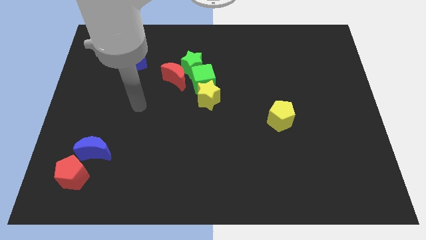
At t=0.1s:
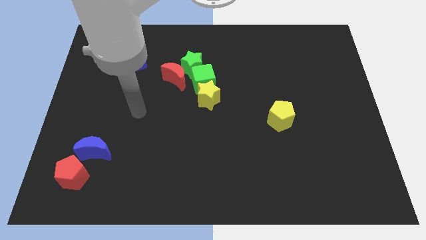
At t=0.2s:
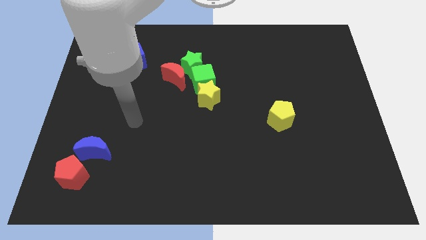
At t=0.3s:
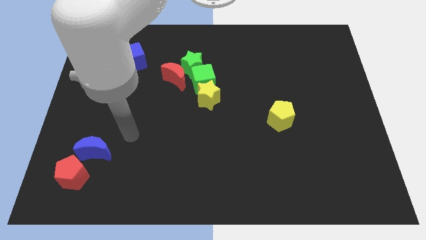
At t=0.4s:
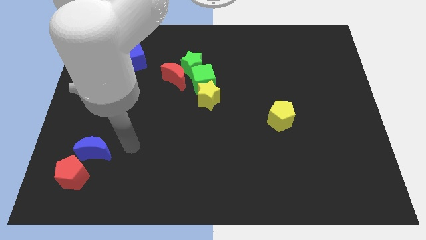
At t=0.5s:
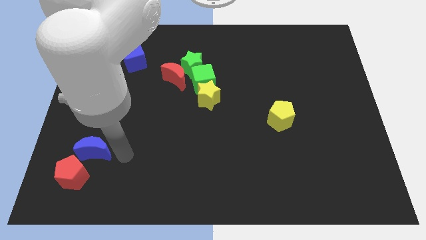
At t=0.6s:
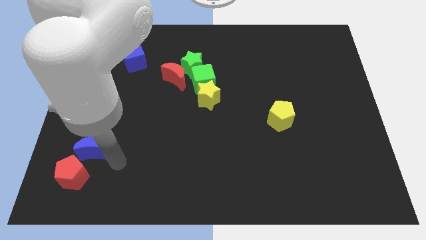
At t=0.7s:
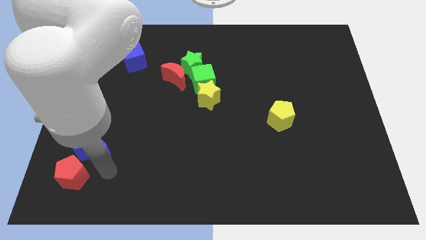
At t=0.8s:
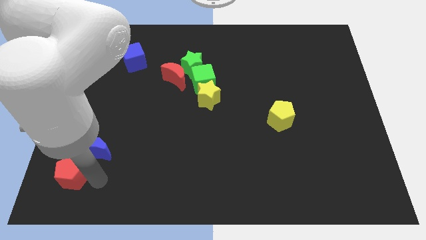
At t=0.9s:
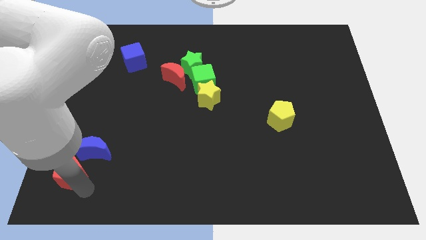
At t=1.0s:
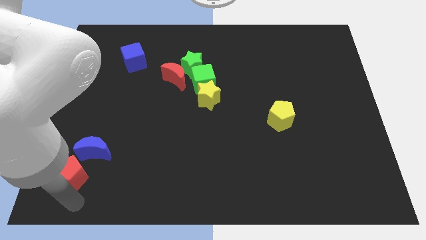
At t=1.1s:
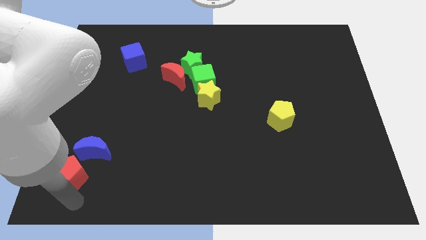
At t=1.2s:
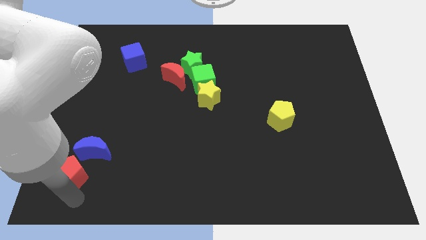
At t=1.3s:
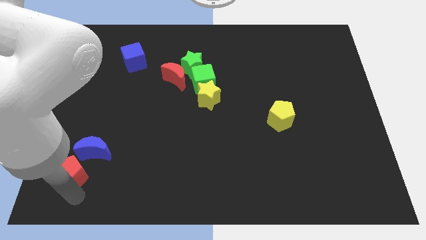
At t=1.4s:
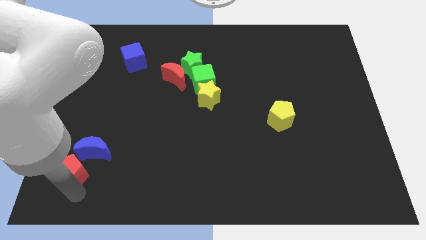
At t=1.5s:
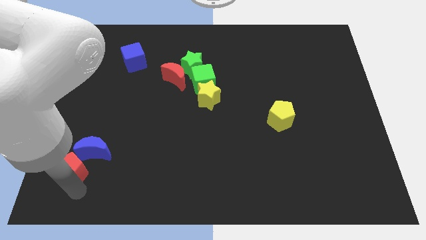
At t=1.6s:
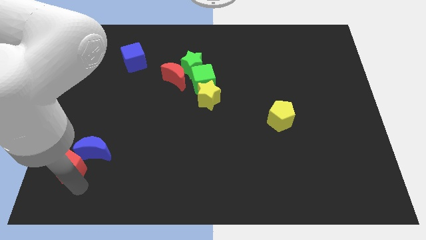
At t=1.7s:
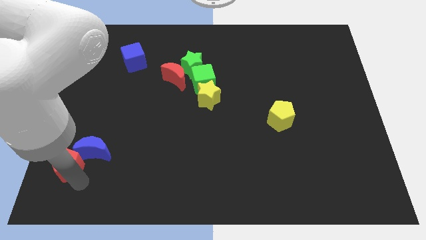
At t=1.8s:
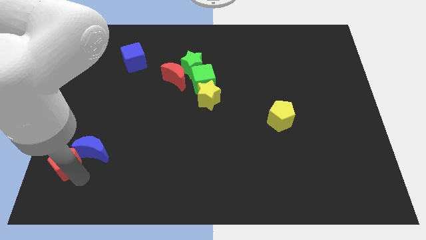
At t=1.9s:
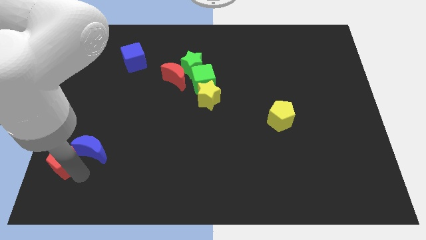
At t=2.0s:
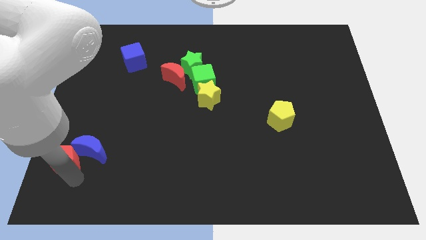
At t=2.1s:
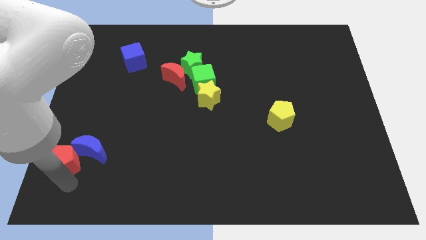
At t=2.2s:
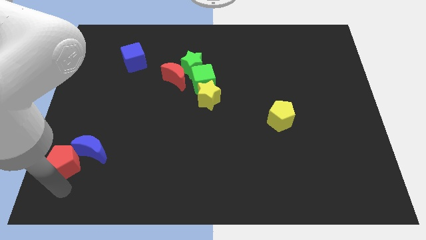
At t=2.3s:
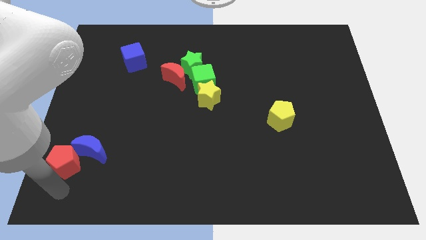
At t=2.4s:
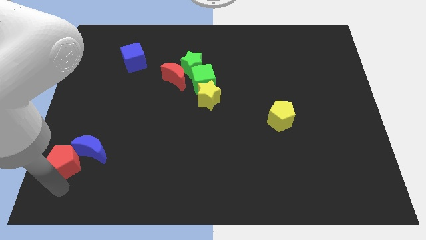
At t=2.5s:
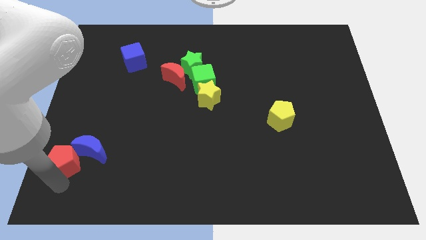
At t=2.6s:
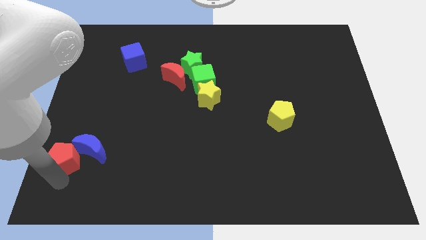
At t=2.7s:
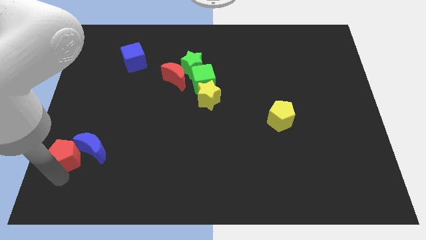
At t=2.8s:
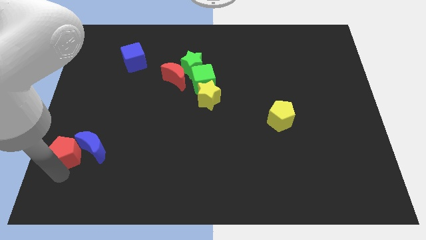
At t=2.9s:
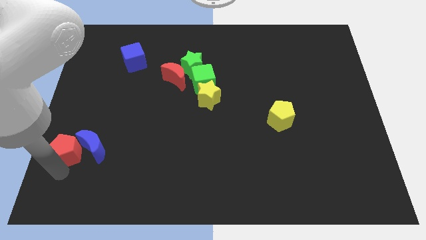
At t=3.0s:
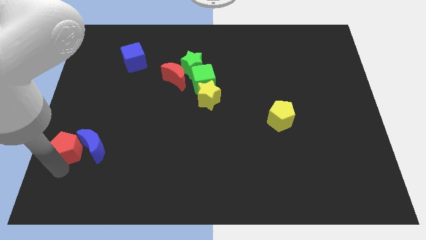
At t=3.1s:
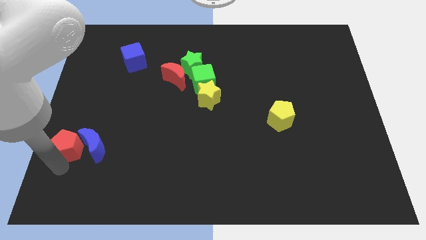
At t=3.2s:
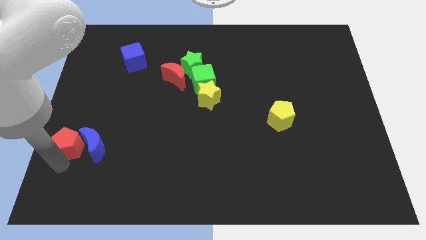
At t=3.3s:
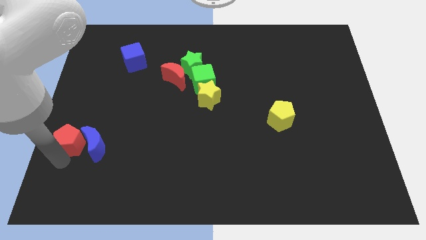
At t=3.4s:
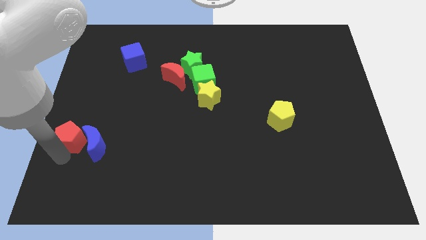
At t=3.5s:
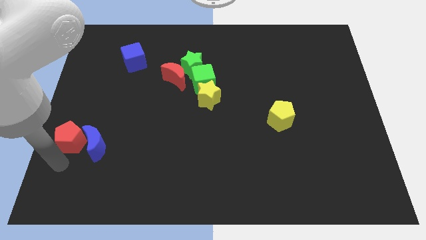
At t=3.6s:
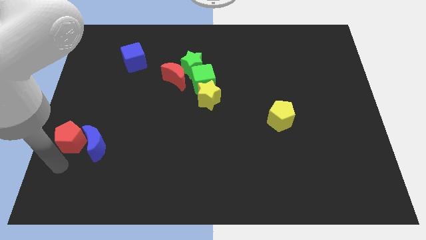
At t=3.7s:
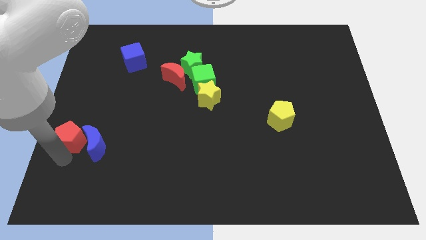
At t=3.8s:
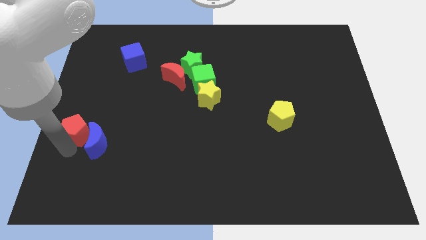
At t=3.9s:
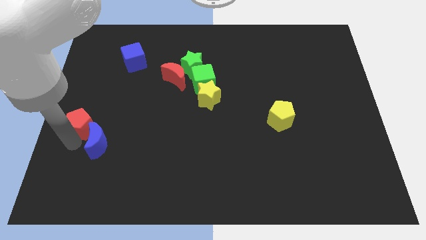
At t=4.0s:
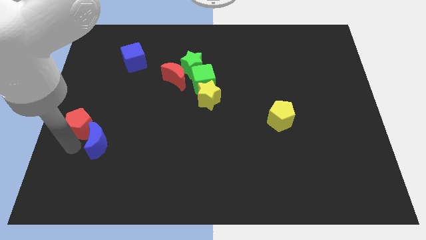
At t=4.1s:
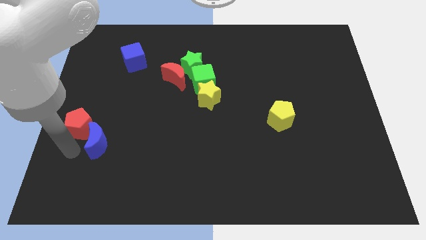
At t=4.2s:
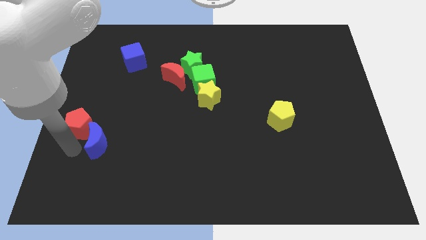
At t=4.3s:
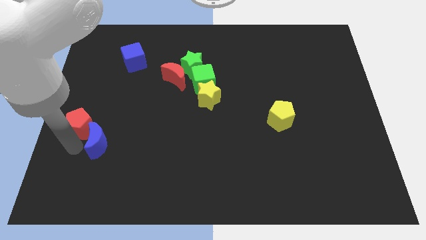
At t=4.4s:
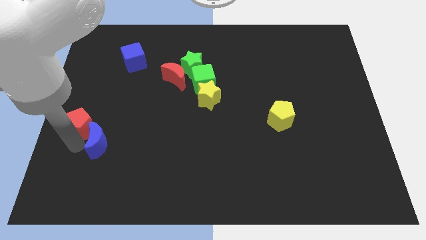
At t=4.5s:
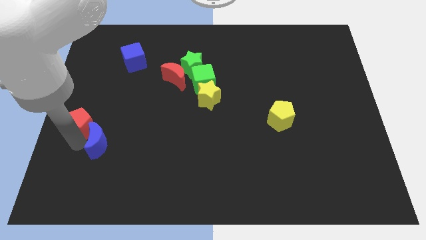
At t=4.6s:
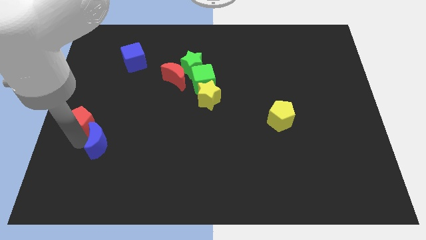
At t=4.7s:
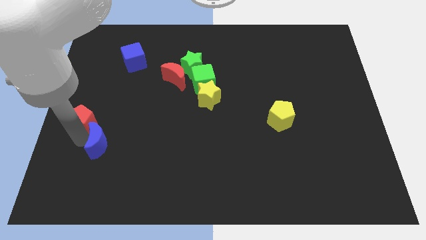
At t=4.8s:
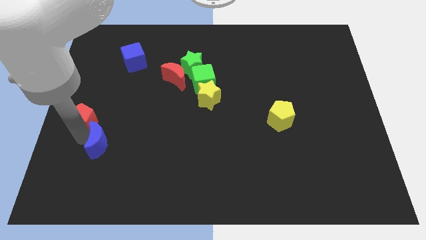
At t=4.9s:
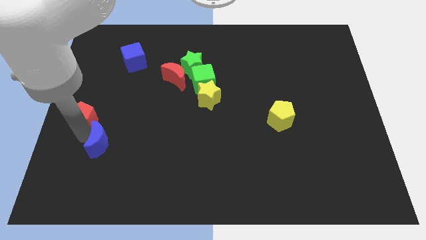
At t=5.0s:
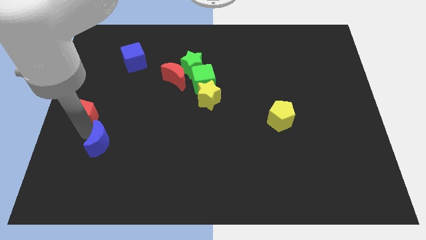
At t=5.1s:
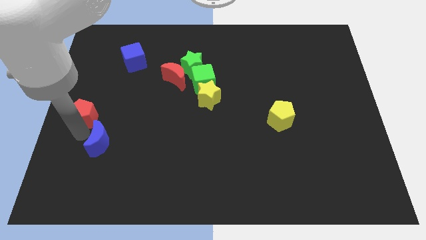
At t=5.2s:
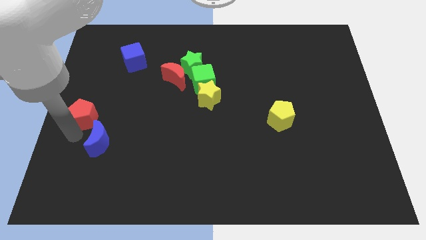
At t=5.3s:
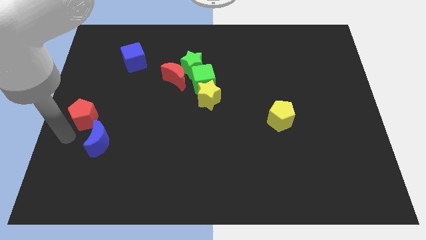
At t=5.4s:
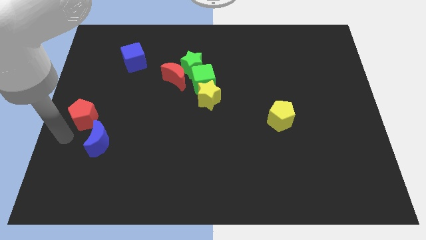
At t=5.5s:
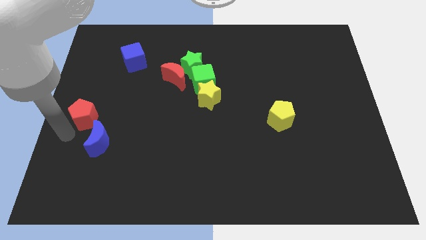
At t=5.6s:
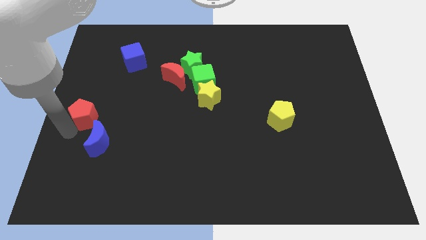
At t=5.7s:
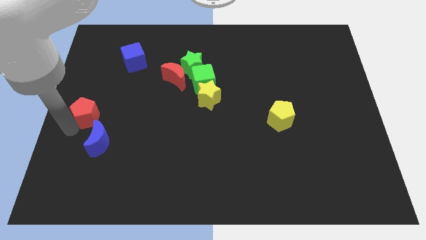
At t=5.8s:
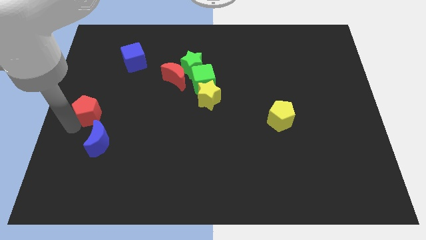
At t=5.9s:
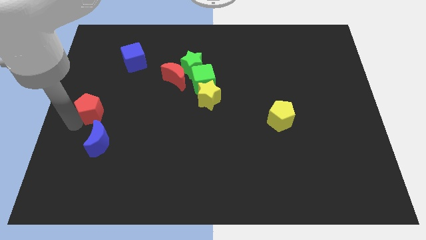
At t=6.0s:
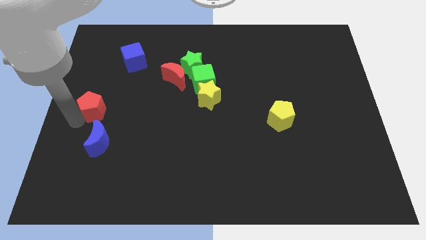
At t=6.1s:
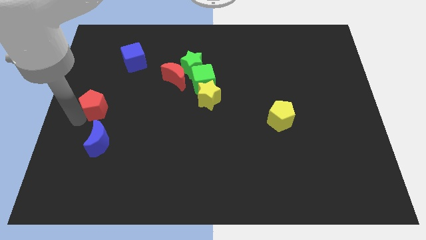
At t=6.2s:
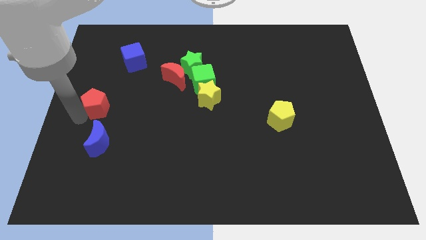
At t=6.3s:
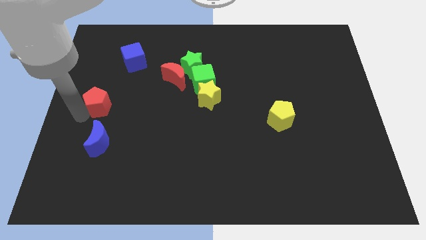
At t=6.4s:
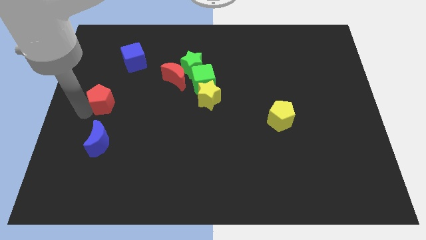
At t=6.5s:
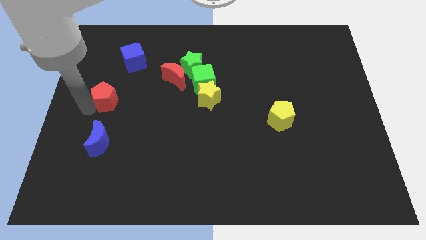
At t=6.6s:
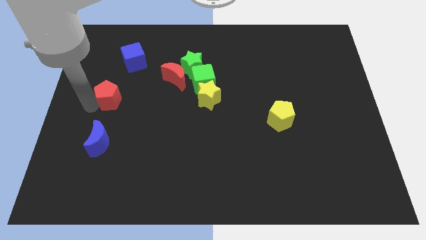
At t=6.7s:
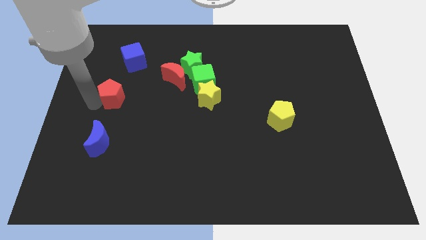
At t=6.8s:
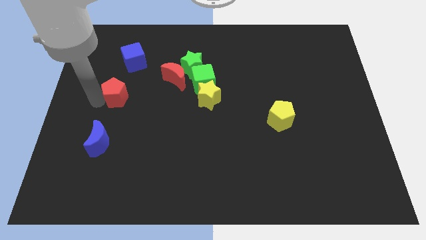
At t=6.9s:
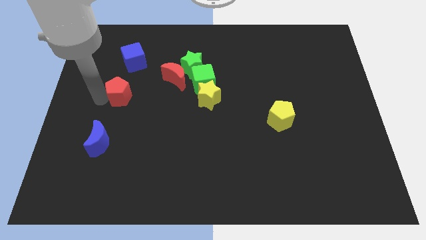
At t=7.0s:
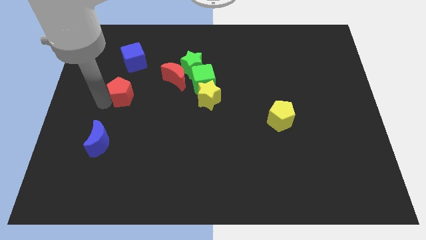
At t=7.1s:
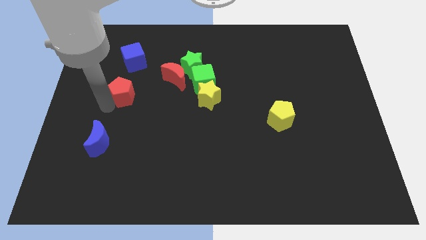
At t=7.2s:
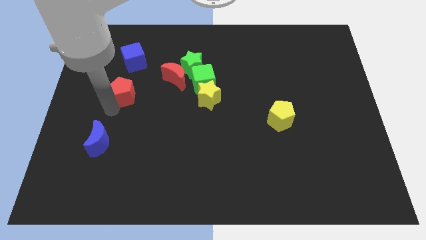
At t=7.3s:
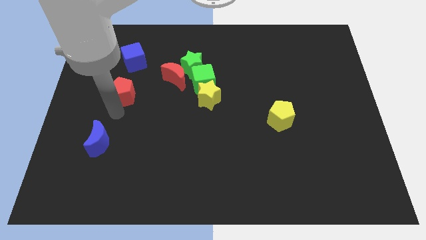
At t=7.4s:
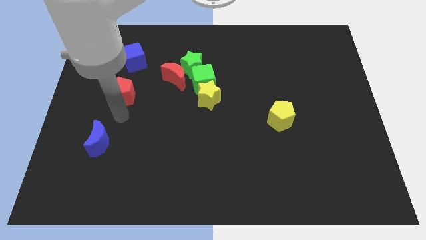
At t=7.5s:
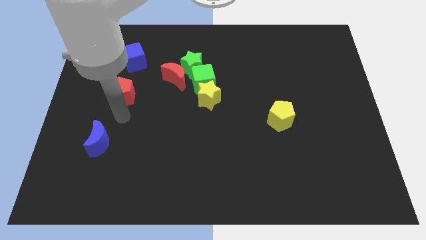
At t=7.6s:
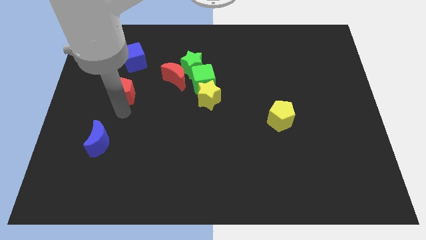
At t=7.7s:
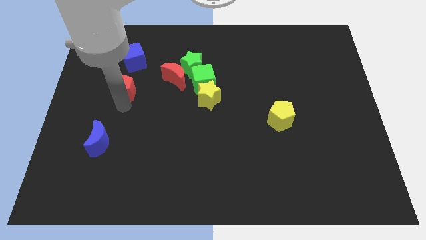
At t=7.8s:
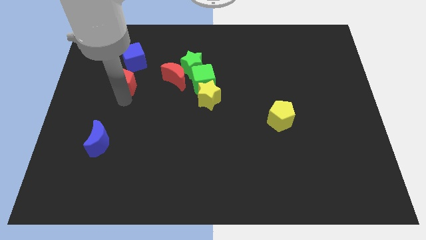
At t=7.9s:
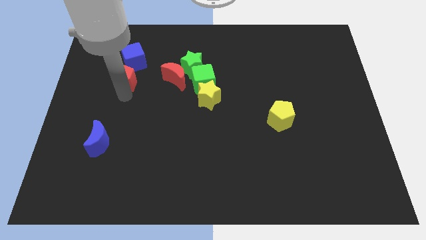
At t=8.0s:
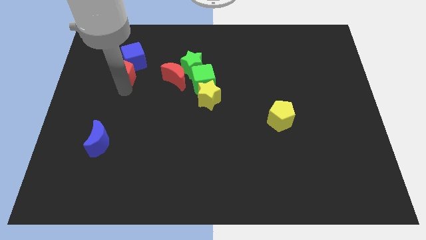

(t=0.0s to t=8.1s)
move the red pentagon to the blue cube

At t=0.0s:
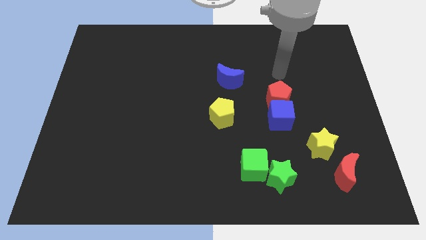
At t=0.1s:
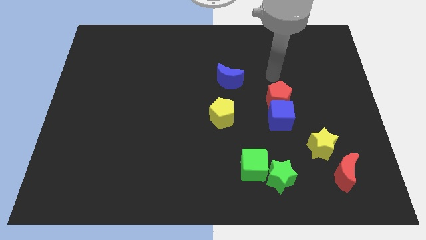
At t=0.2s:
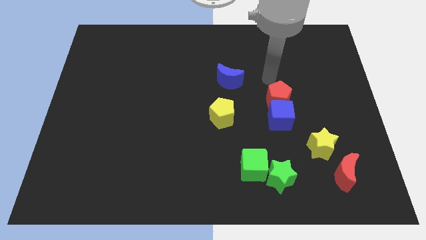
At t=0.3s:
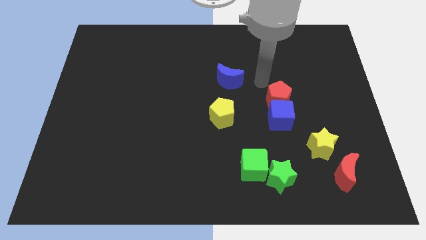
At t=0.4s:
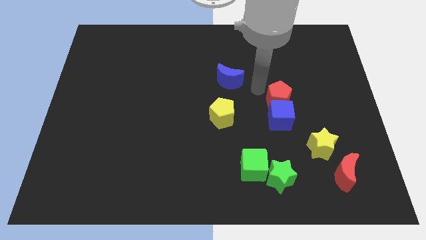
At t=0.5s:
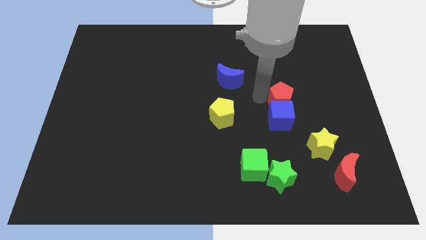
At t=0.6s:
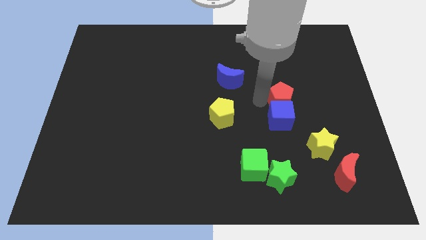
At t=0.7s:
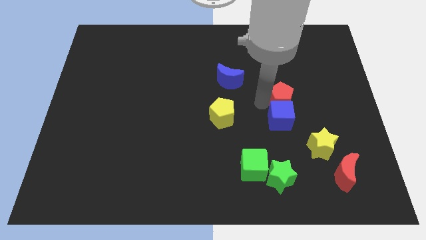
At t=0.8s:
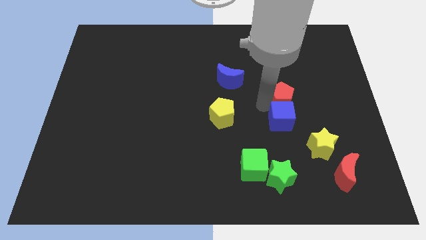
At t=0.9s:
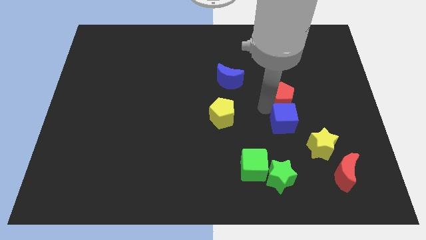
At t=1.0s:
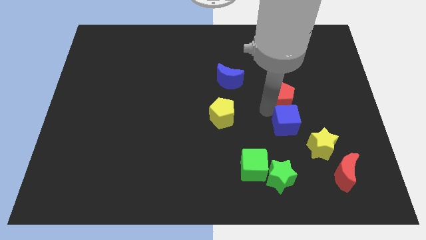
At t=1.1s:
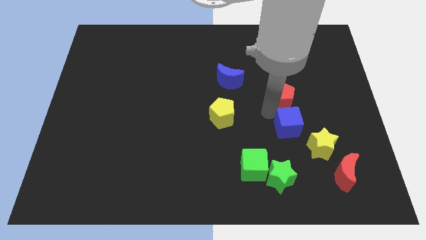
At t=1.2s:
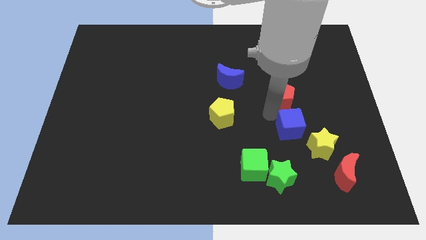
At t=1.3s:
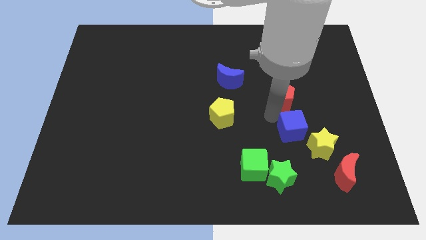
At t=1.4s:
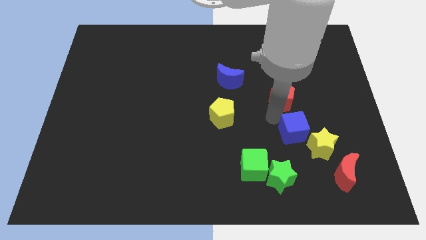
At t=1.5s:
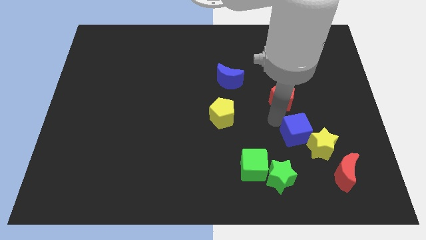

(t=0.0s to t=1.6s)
push the blue cube close to the yellow star
